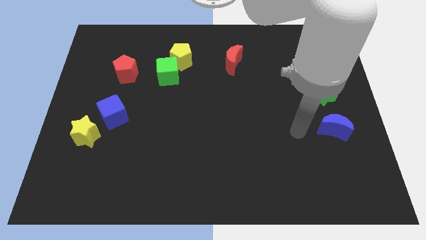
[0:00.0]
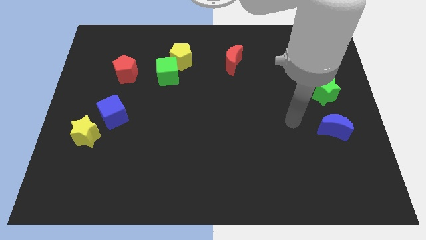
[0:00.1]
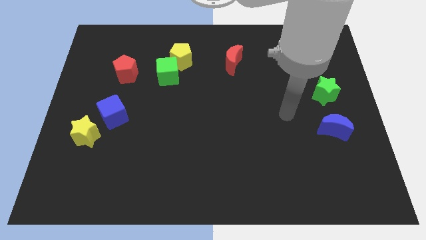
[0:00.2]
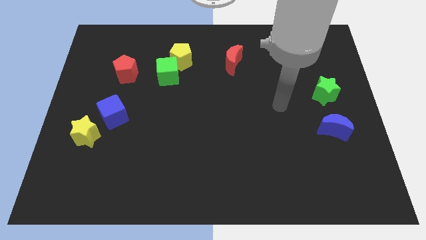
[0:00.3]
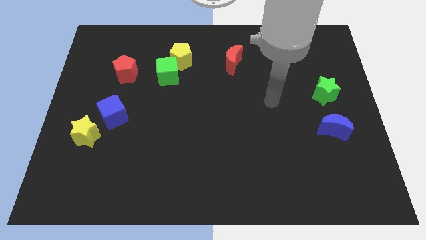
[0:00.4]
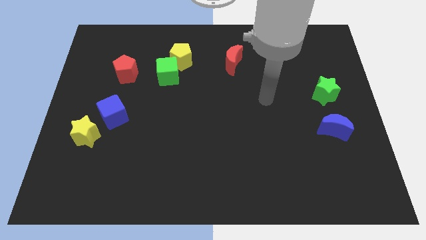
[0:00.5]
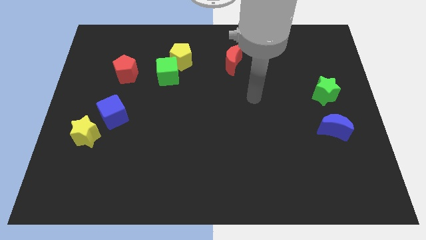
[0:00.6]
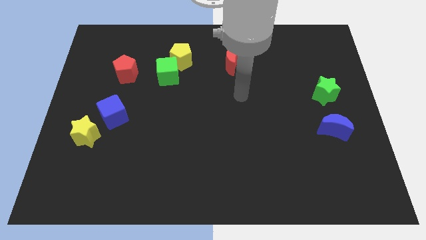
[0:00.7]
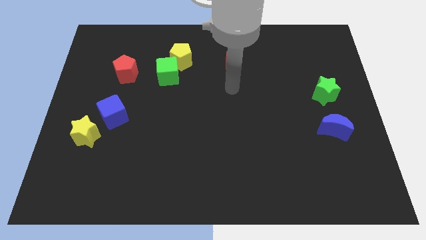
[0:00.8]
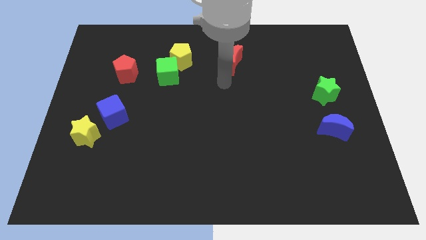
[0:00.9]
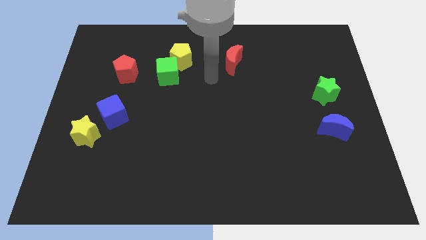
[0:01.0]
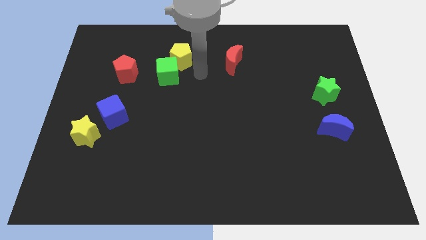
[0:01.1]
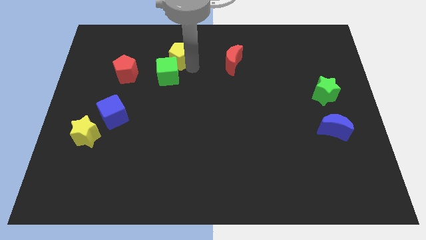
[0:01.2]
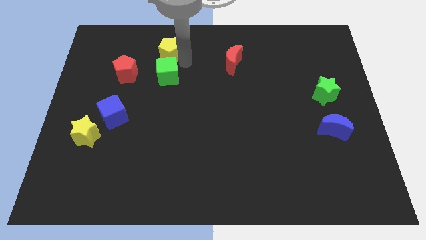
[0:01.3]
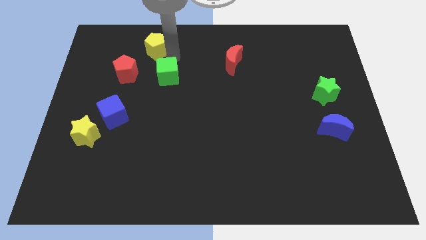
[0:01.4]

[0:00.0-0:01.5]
pull the green cube apart from the yellow pentagon

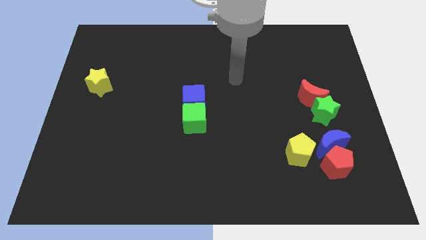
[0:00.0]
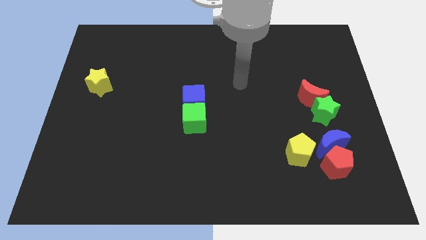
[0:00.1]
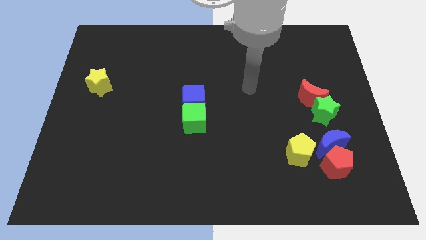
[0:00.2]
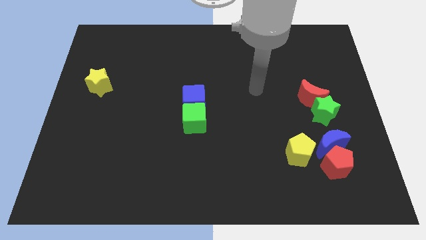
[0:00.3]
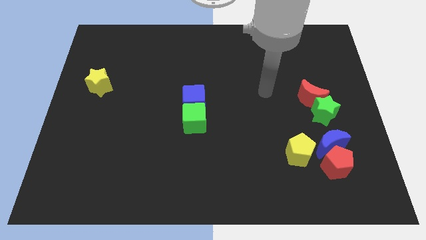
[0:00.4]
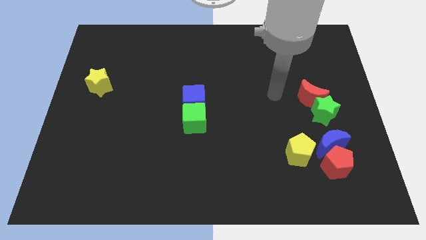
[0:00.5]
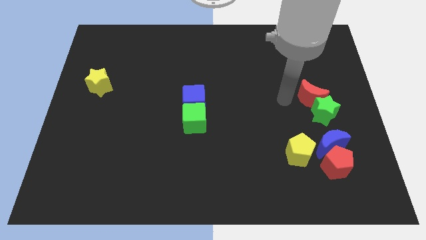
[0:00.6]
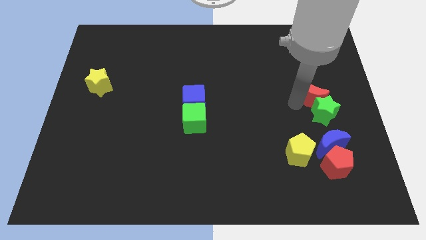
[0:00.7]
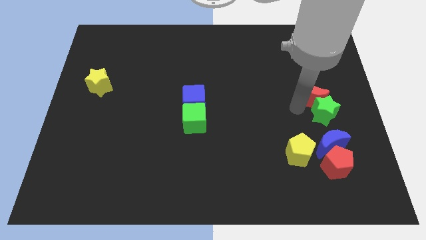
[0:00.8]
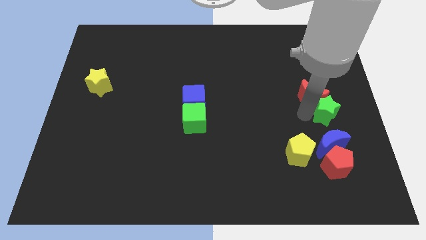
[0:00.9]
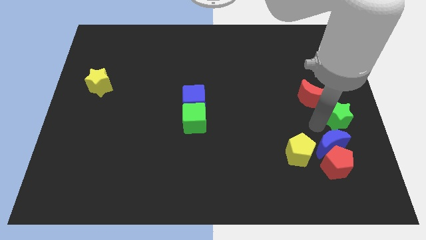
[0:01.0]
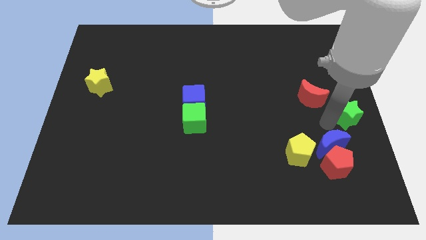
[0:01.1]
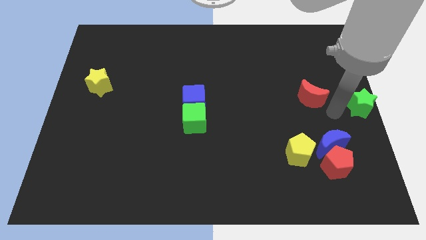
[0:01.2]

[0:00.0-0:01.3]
move the red moon away from the green star

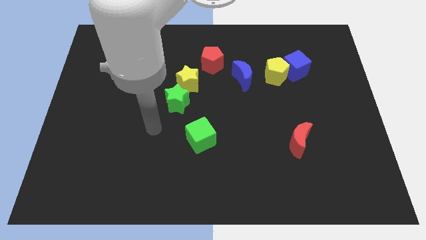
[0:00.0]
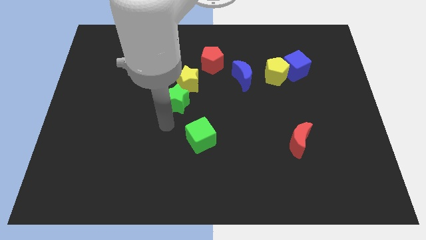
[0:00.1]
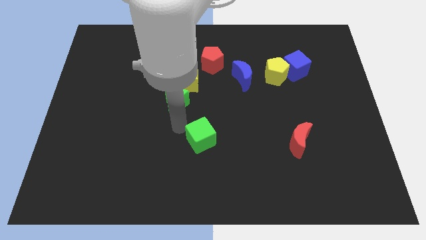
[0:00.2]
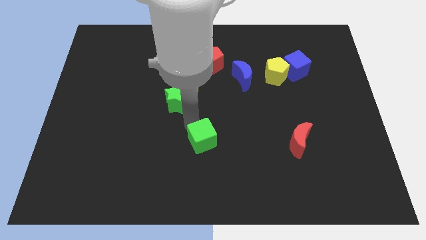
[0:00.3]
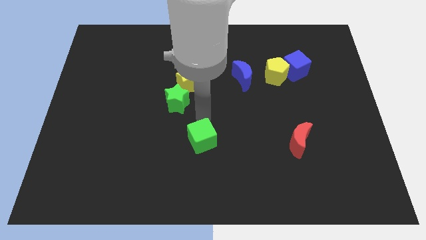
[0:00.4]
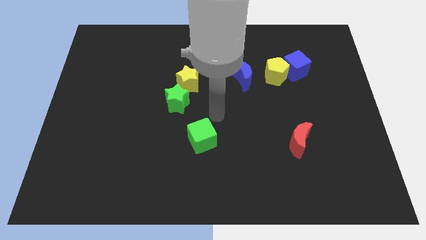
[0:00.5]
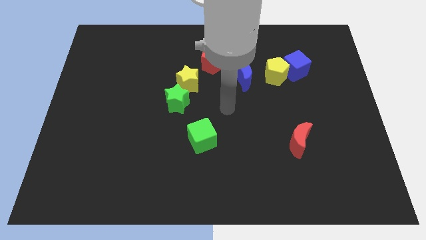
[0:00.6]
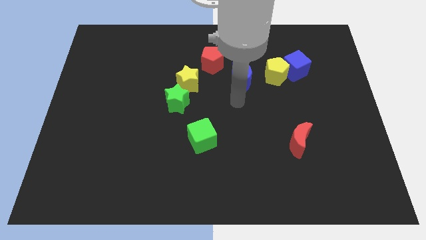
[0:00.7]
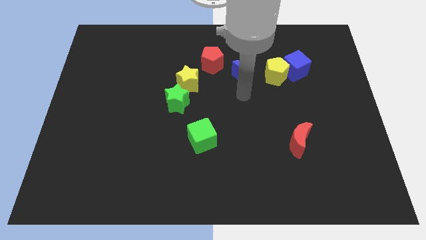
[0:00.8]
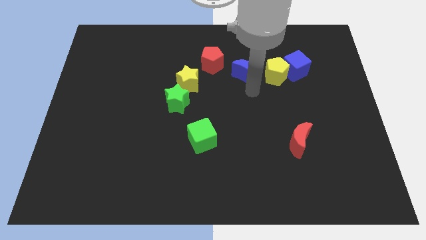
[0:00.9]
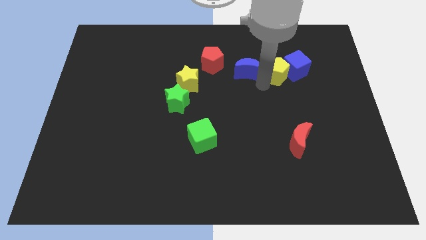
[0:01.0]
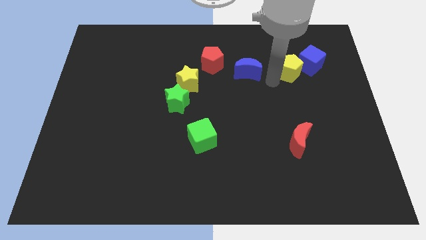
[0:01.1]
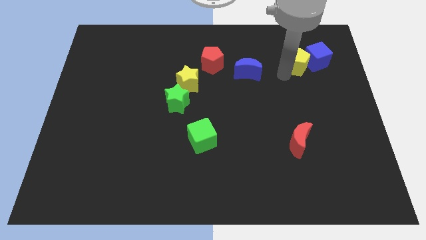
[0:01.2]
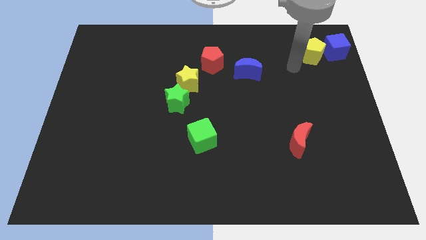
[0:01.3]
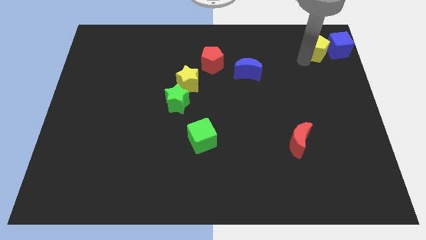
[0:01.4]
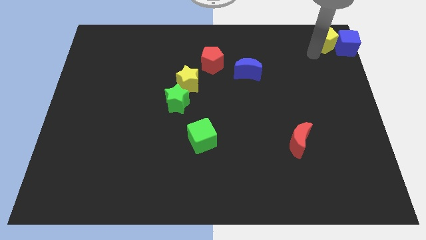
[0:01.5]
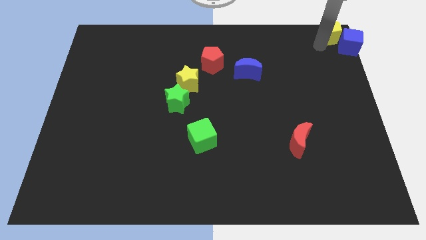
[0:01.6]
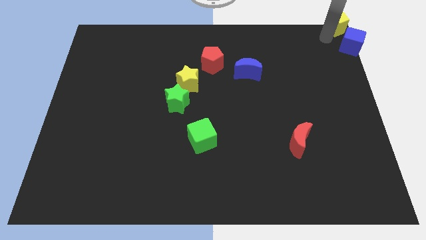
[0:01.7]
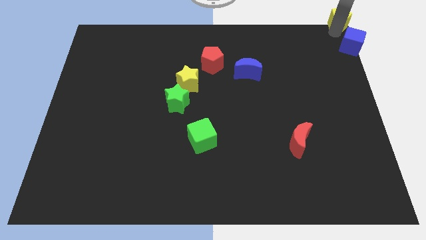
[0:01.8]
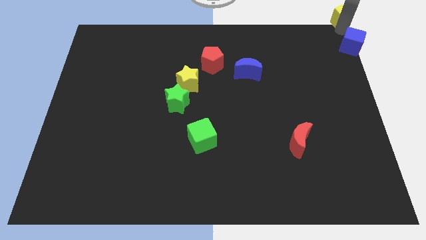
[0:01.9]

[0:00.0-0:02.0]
separate the blue cube from the yellow pentagon

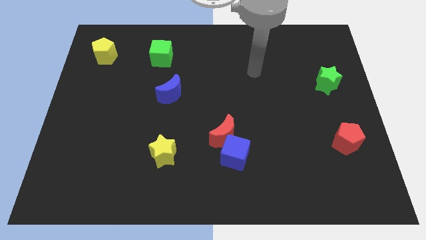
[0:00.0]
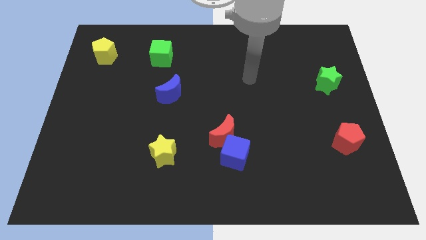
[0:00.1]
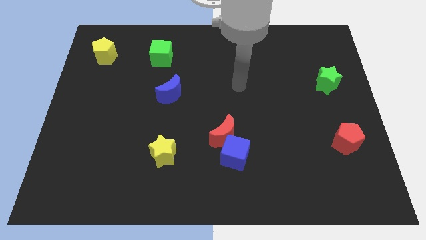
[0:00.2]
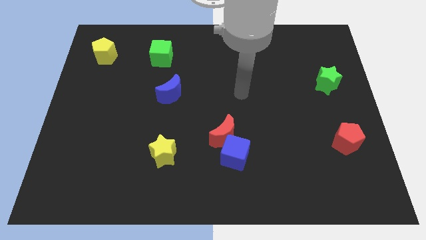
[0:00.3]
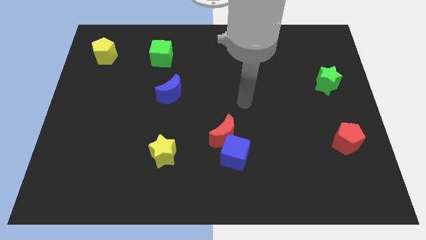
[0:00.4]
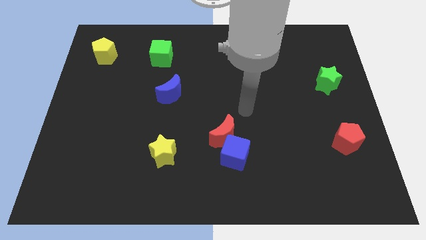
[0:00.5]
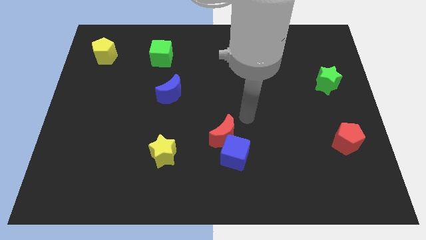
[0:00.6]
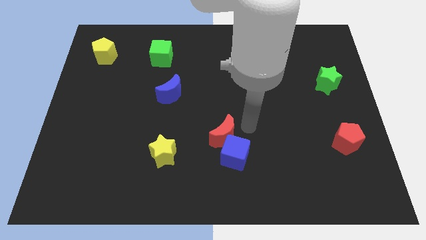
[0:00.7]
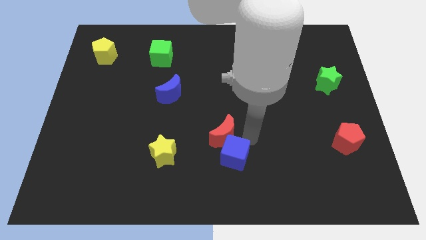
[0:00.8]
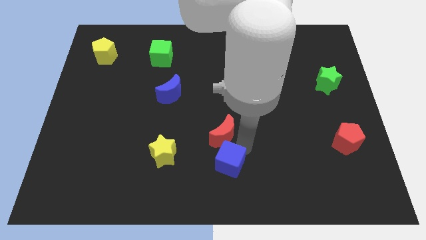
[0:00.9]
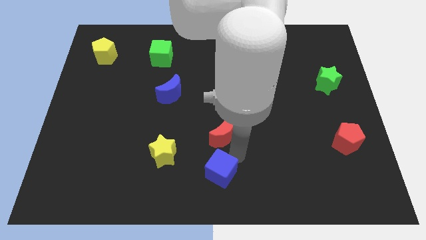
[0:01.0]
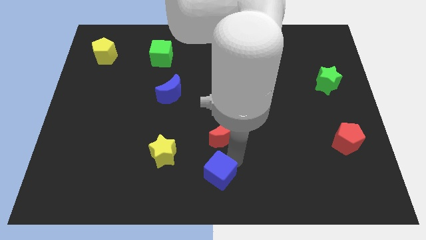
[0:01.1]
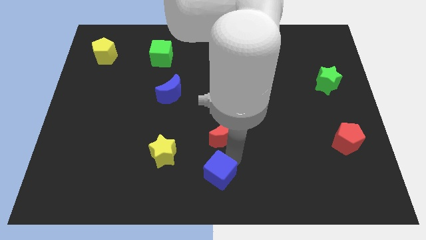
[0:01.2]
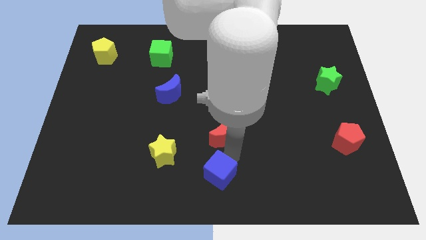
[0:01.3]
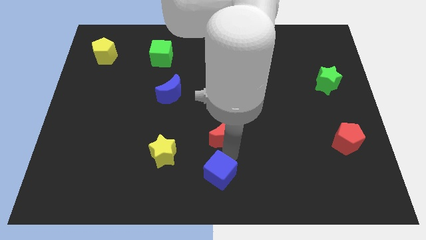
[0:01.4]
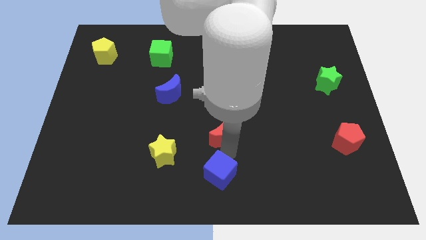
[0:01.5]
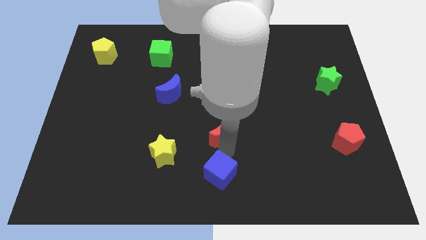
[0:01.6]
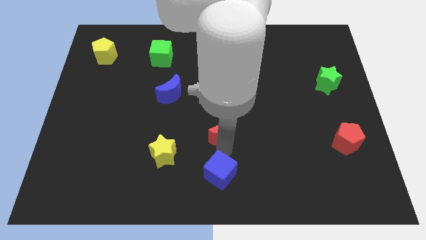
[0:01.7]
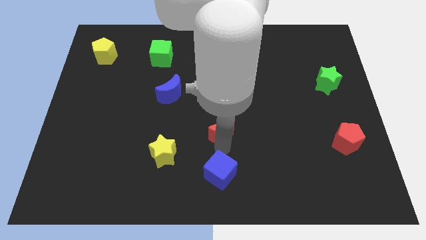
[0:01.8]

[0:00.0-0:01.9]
pull the red moon apart from the blue cube

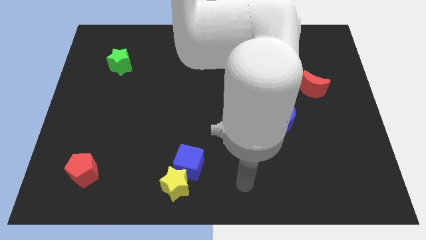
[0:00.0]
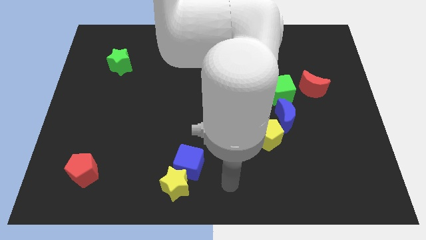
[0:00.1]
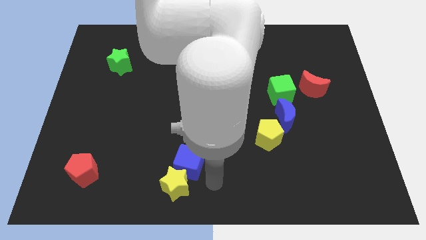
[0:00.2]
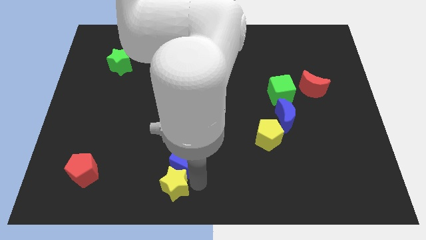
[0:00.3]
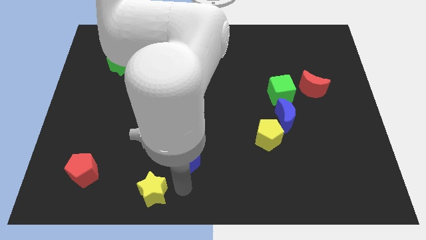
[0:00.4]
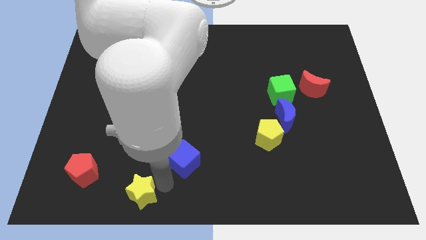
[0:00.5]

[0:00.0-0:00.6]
separate the blue cube from the yellow star

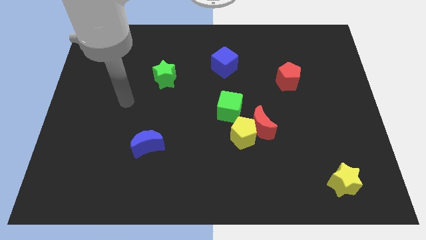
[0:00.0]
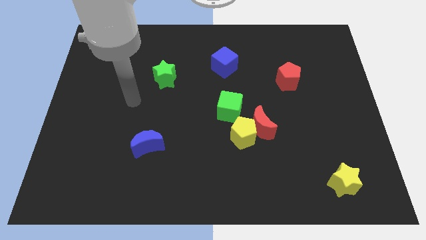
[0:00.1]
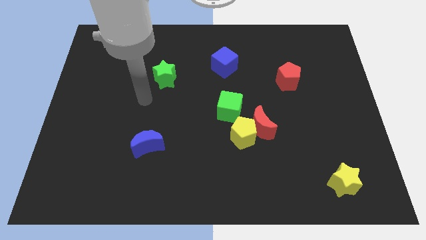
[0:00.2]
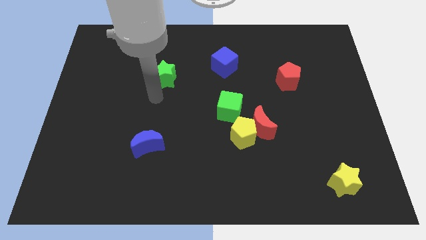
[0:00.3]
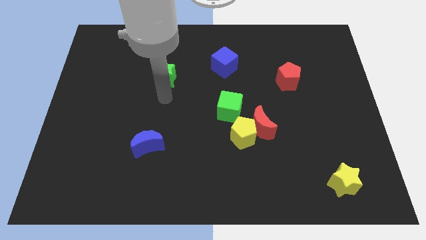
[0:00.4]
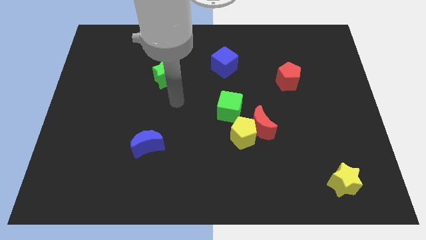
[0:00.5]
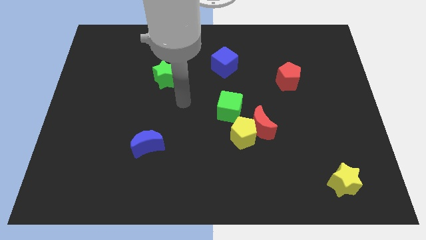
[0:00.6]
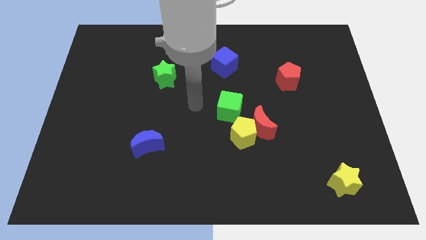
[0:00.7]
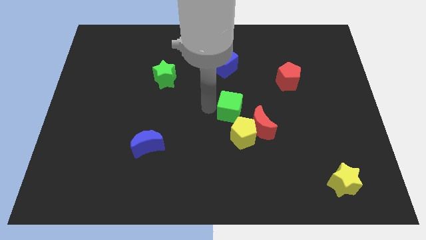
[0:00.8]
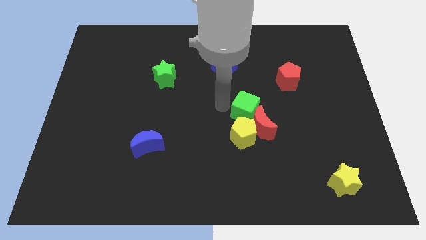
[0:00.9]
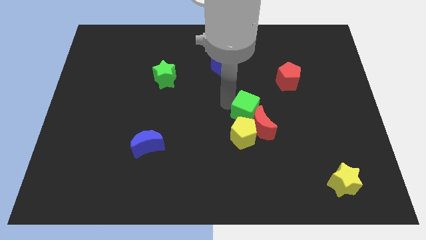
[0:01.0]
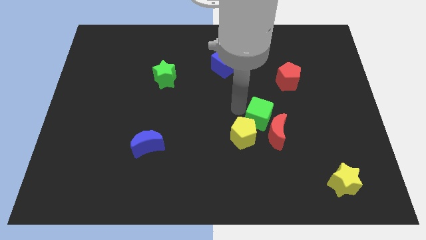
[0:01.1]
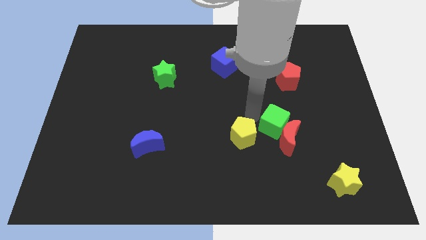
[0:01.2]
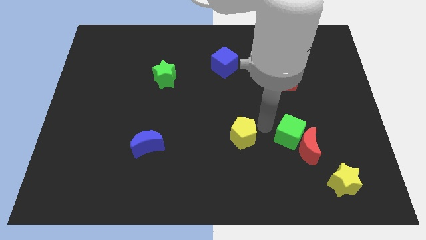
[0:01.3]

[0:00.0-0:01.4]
separate the yellow pentagon from the red moon and green cube

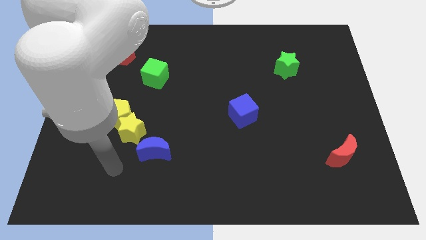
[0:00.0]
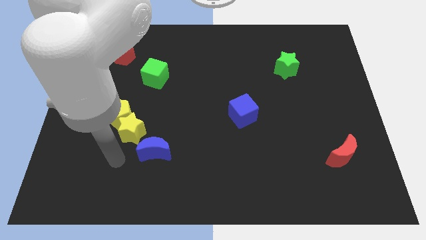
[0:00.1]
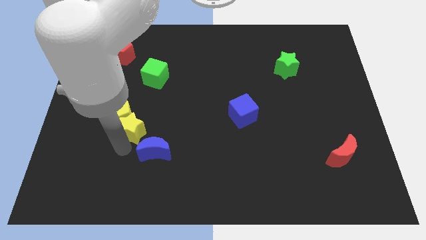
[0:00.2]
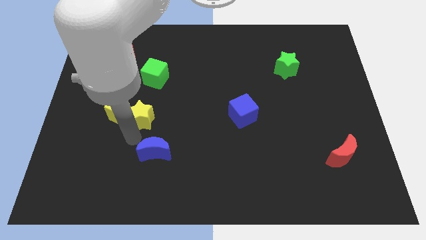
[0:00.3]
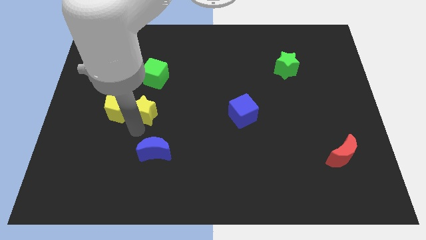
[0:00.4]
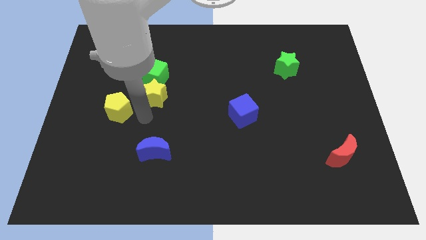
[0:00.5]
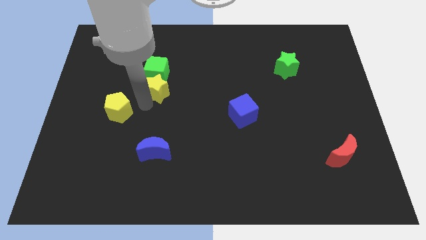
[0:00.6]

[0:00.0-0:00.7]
separate the yellow pentagon from the yellow star
